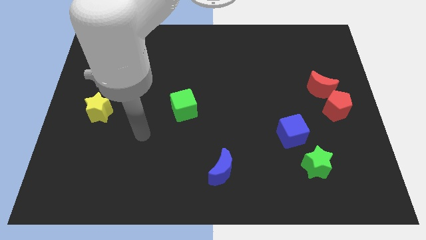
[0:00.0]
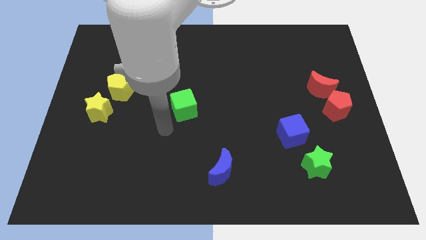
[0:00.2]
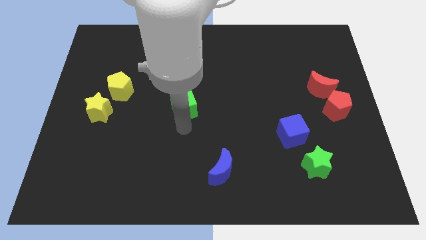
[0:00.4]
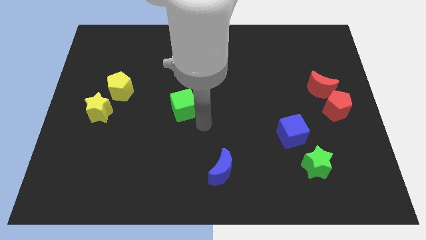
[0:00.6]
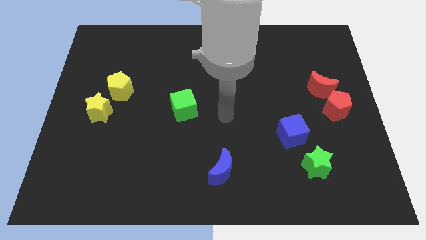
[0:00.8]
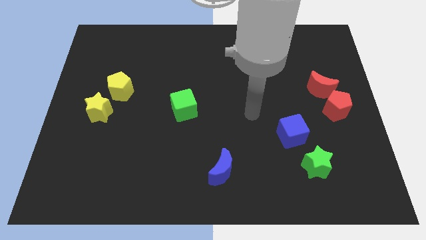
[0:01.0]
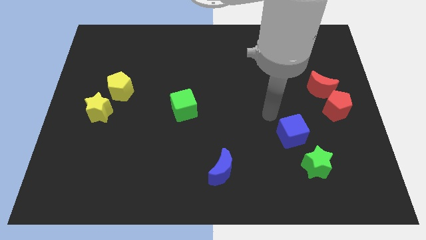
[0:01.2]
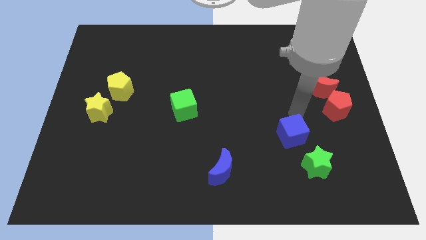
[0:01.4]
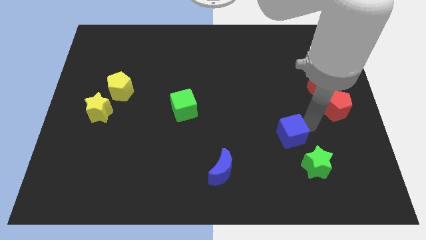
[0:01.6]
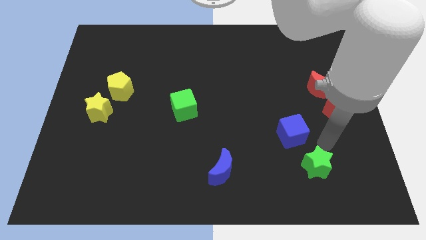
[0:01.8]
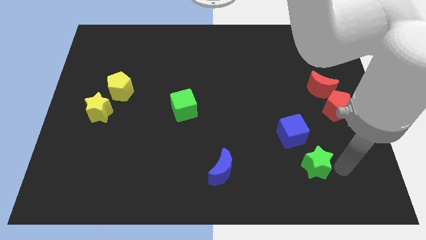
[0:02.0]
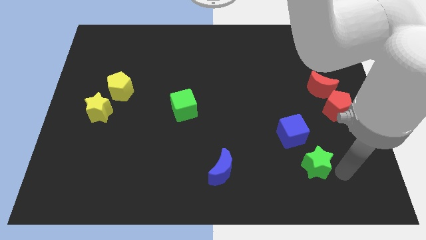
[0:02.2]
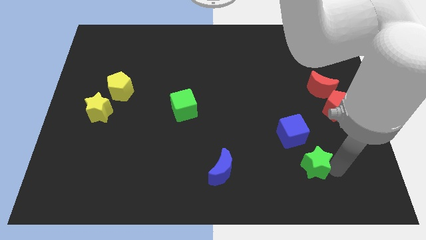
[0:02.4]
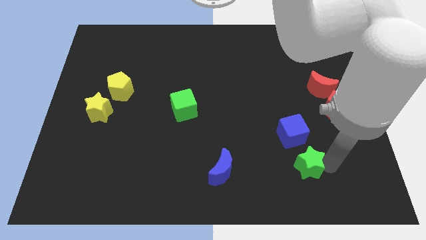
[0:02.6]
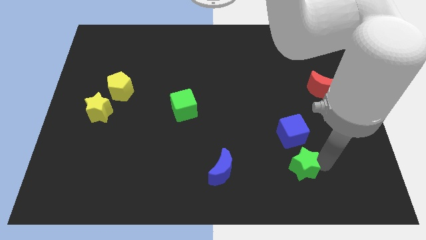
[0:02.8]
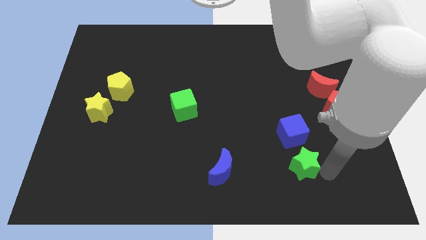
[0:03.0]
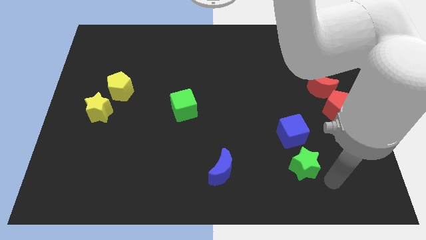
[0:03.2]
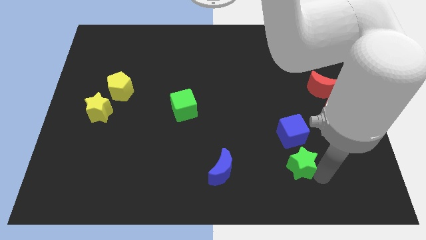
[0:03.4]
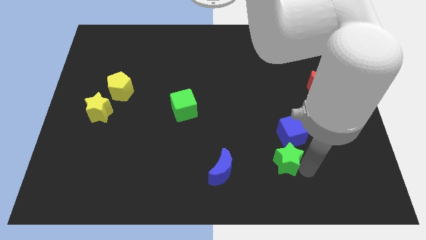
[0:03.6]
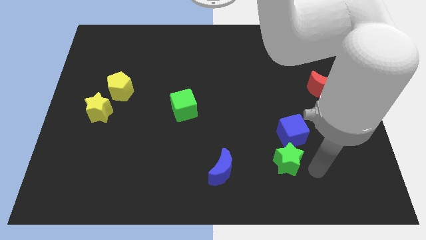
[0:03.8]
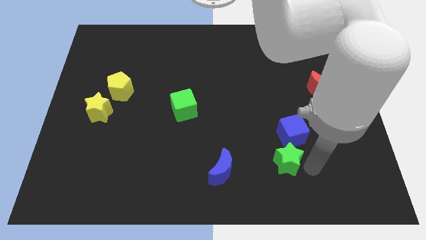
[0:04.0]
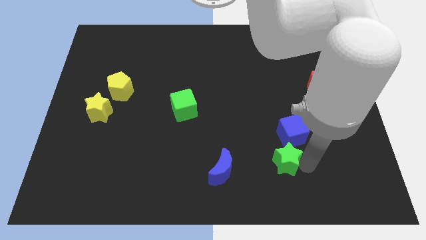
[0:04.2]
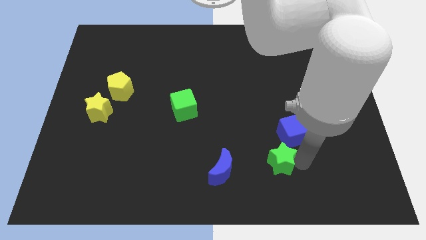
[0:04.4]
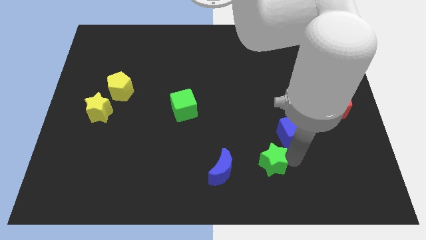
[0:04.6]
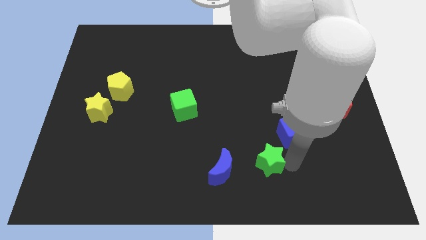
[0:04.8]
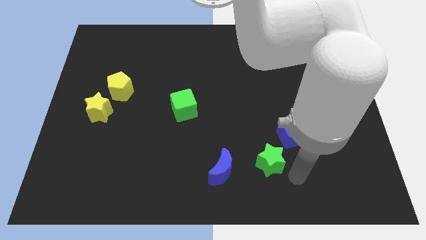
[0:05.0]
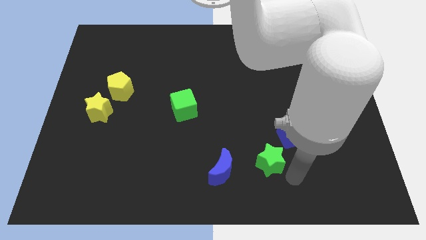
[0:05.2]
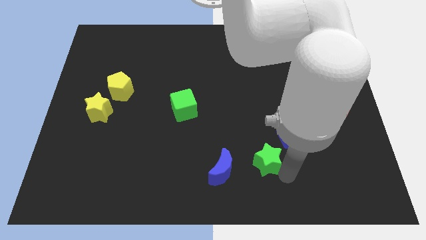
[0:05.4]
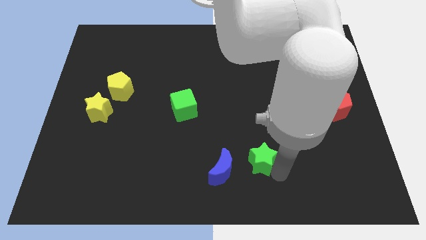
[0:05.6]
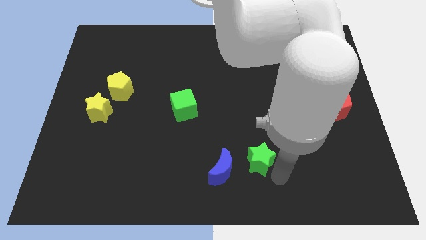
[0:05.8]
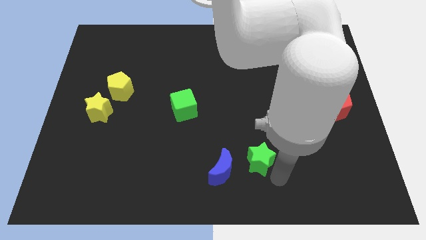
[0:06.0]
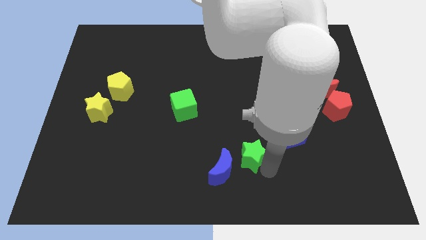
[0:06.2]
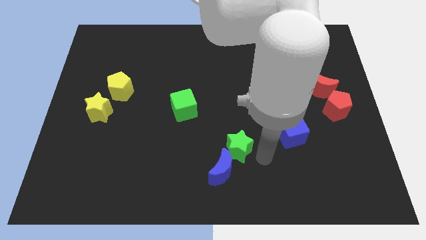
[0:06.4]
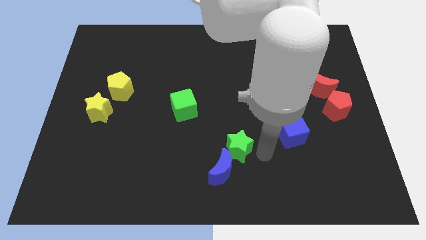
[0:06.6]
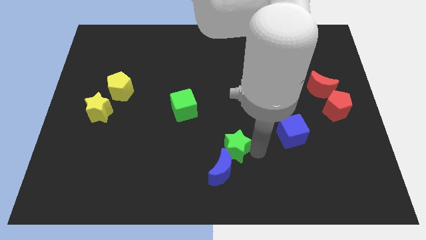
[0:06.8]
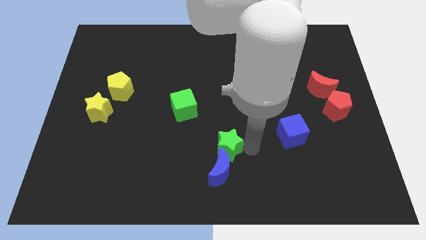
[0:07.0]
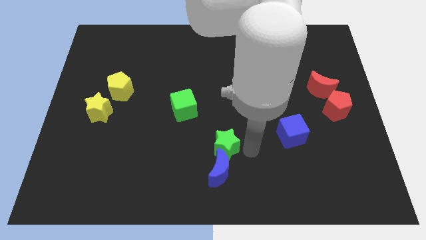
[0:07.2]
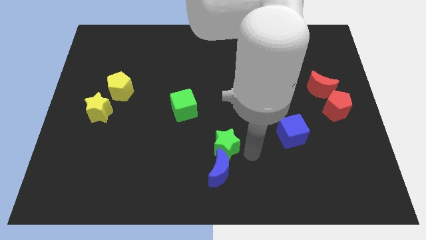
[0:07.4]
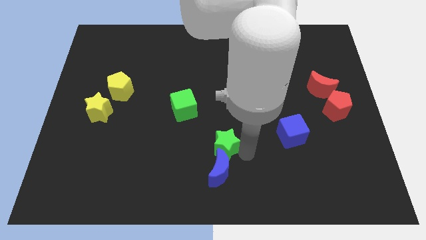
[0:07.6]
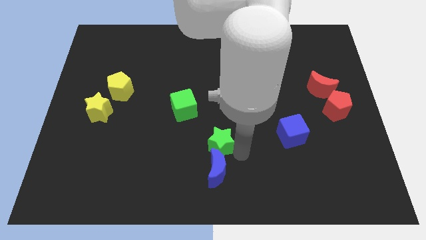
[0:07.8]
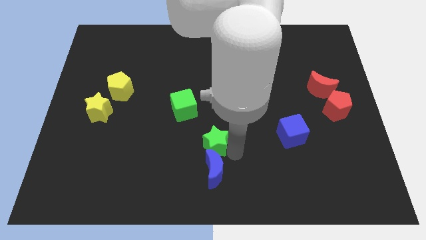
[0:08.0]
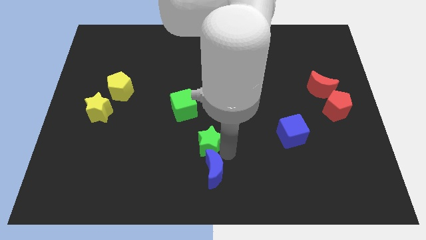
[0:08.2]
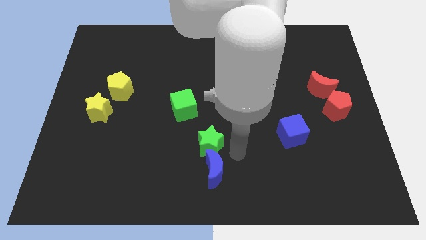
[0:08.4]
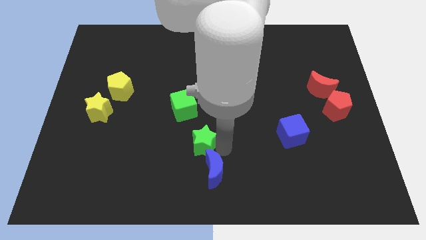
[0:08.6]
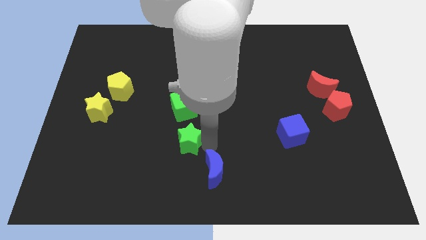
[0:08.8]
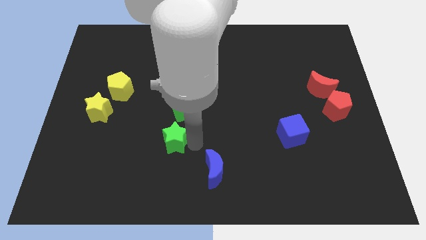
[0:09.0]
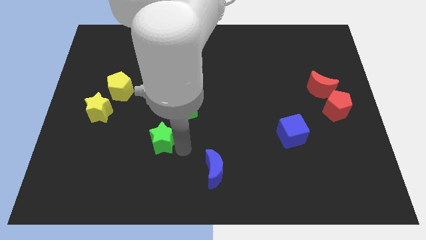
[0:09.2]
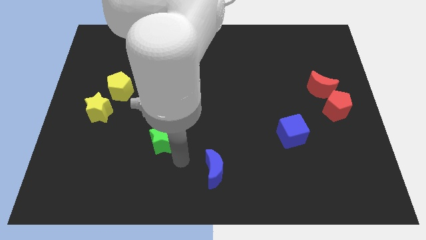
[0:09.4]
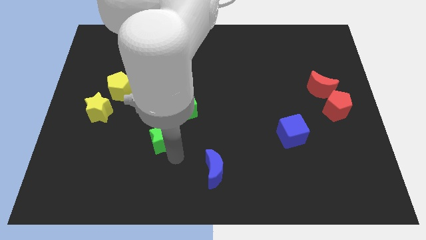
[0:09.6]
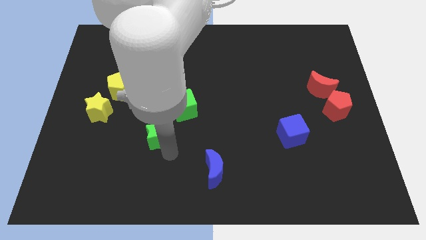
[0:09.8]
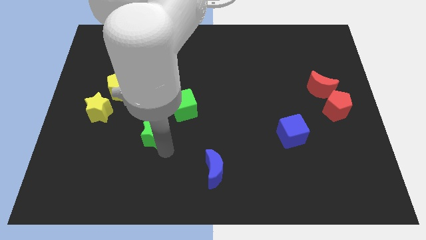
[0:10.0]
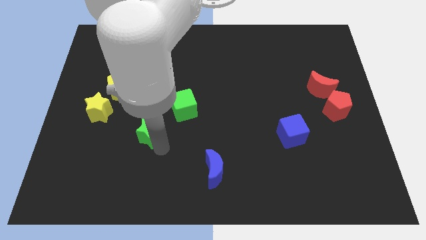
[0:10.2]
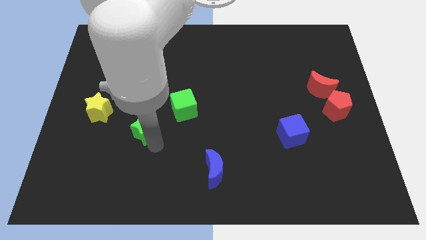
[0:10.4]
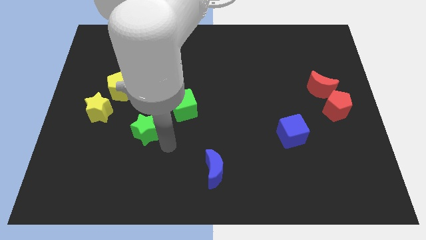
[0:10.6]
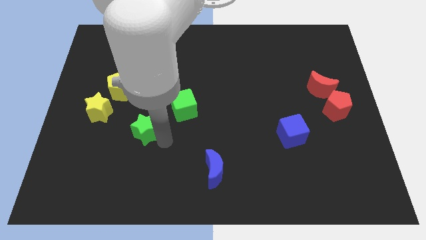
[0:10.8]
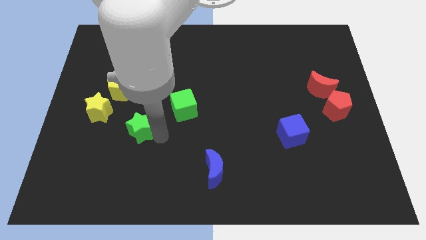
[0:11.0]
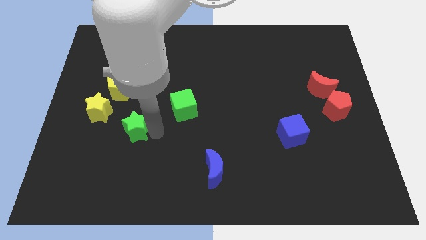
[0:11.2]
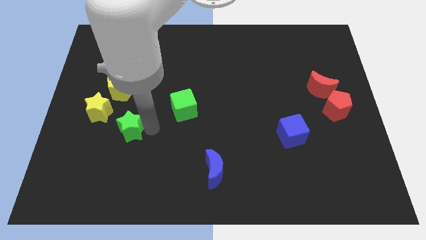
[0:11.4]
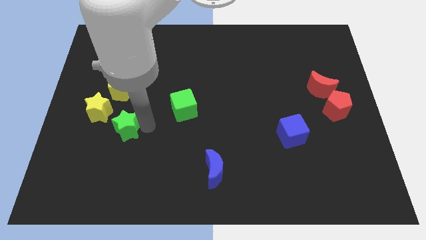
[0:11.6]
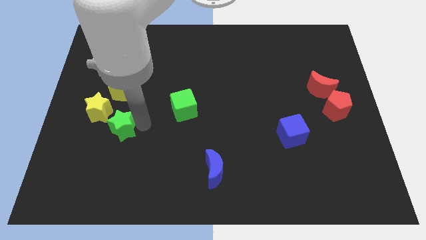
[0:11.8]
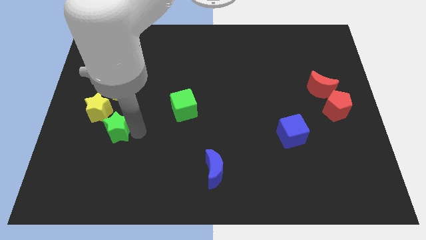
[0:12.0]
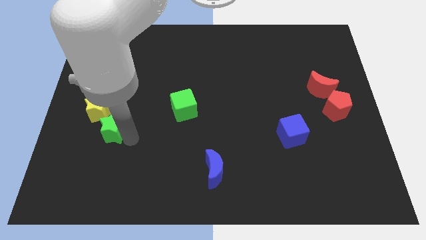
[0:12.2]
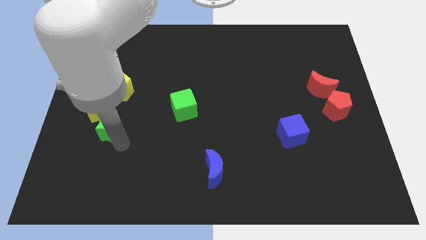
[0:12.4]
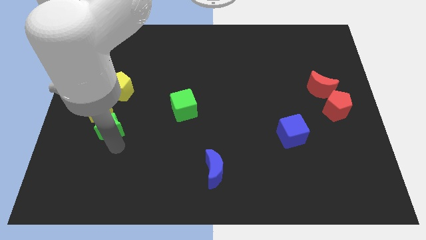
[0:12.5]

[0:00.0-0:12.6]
move the green star to the yellow star

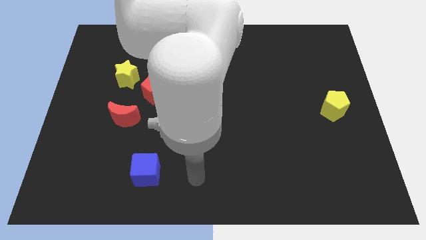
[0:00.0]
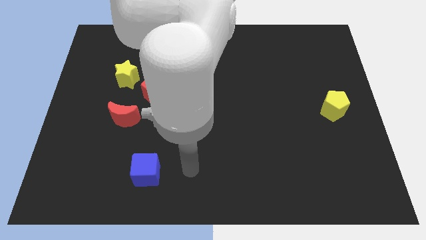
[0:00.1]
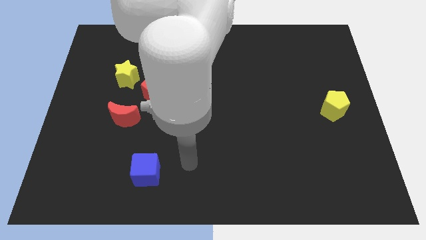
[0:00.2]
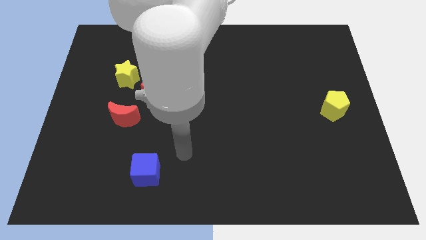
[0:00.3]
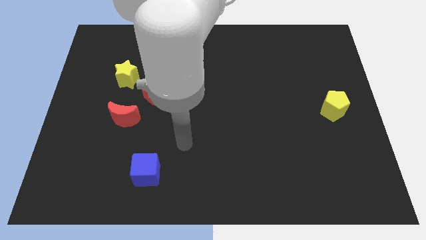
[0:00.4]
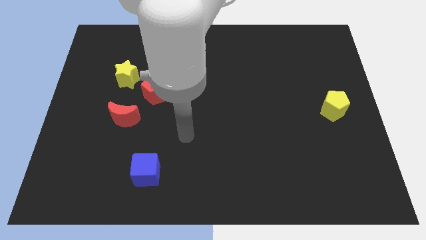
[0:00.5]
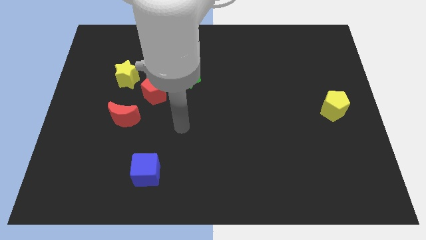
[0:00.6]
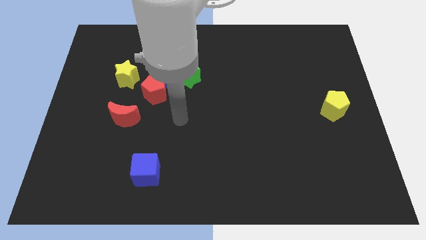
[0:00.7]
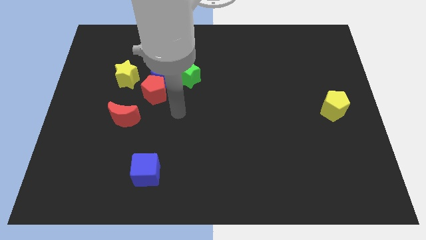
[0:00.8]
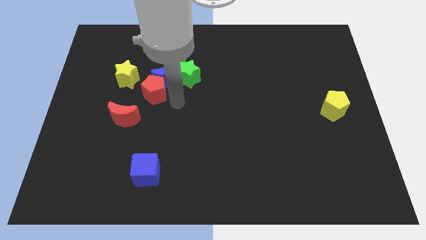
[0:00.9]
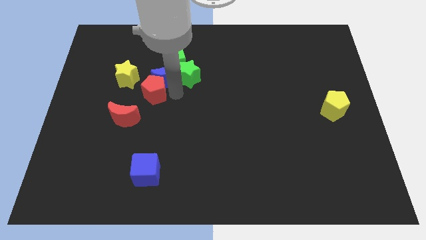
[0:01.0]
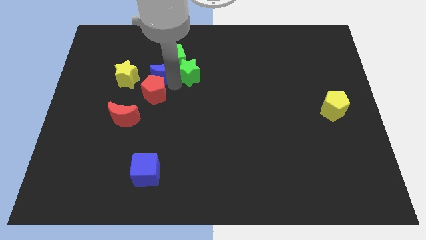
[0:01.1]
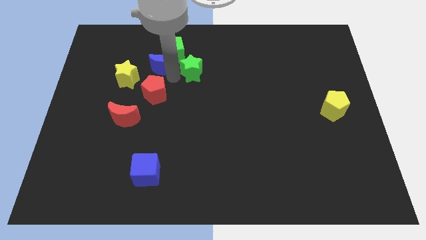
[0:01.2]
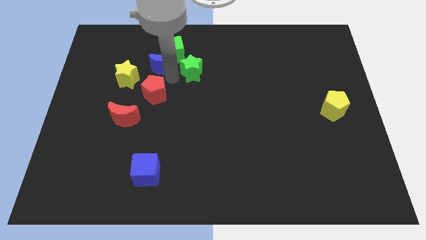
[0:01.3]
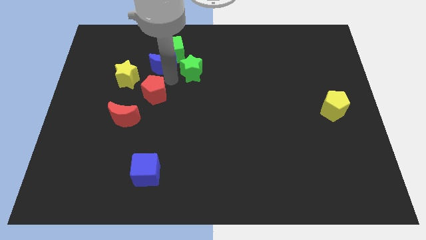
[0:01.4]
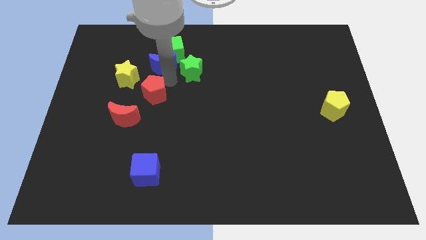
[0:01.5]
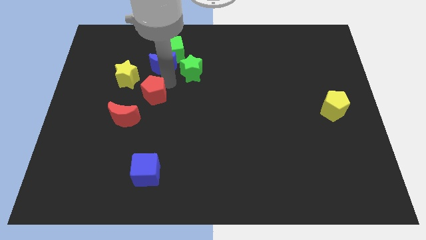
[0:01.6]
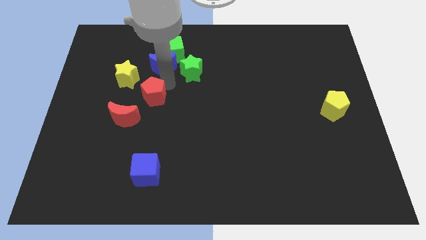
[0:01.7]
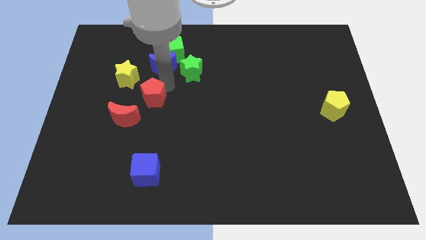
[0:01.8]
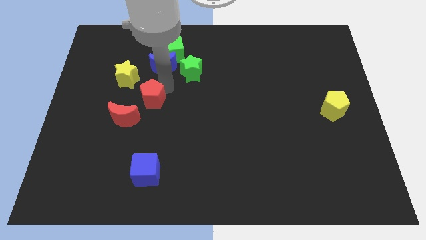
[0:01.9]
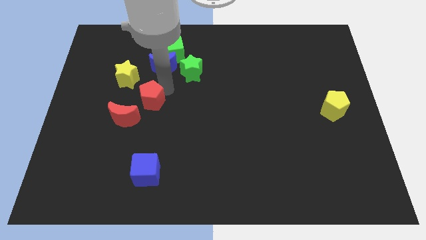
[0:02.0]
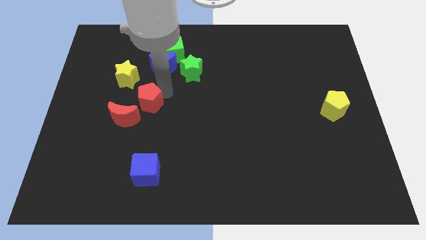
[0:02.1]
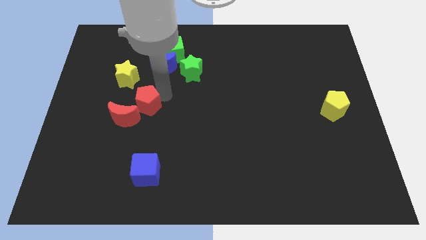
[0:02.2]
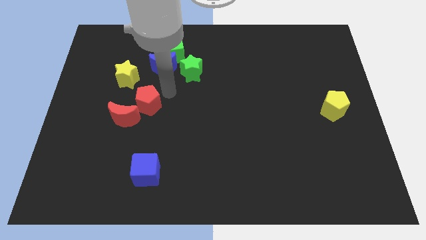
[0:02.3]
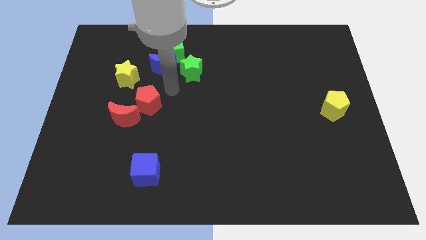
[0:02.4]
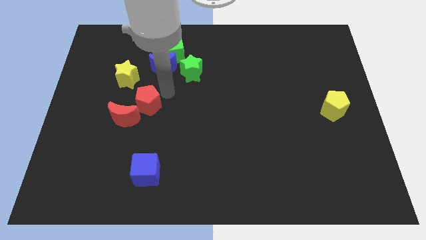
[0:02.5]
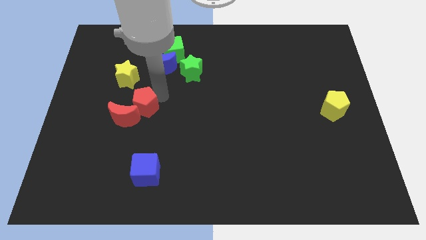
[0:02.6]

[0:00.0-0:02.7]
slide the red pentagon next to the red moon
